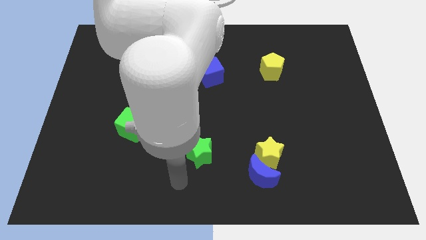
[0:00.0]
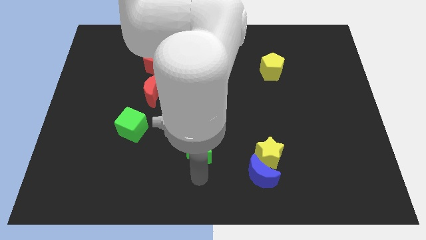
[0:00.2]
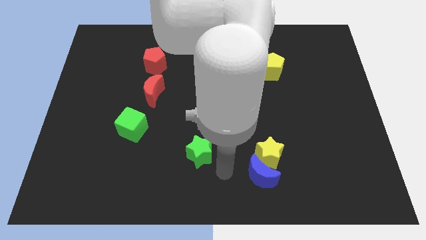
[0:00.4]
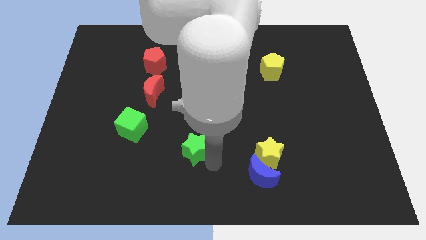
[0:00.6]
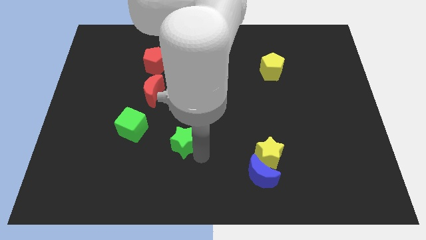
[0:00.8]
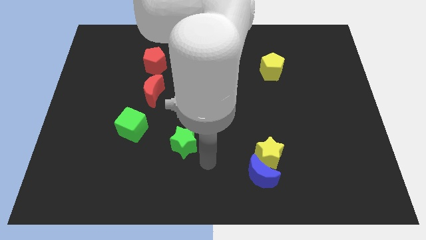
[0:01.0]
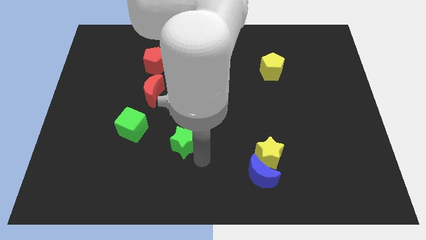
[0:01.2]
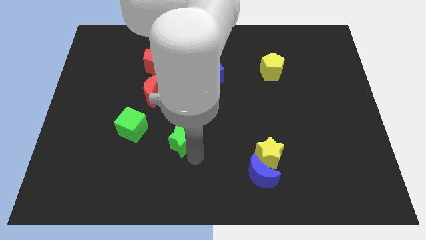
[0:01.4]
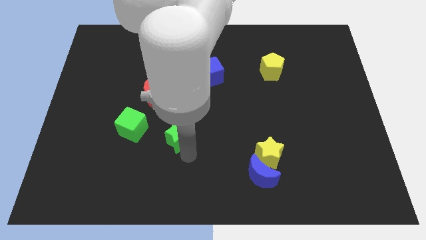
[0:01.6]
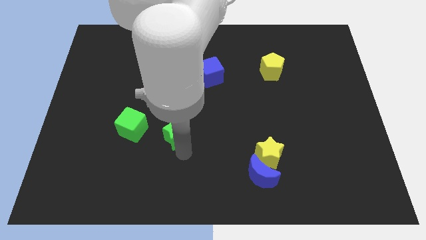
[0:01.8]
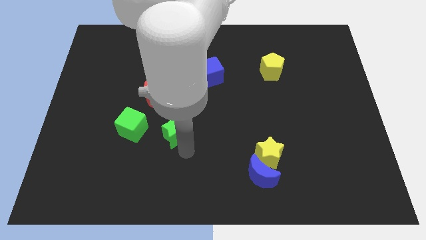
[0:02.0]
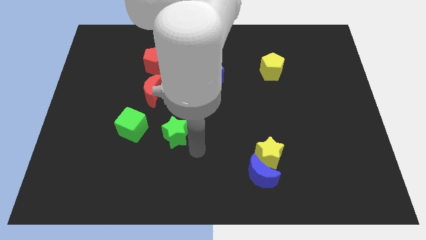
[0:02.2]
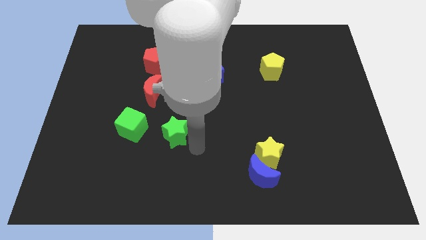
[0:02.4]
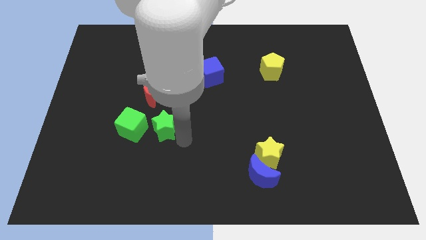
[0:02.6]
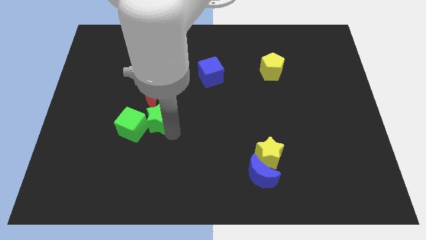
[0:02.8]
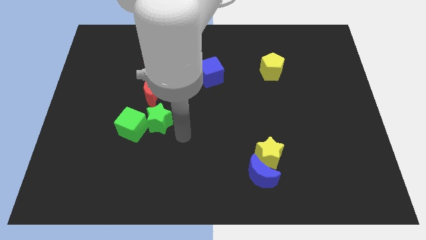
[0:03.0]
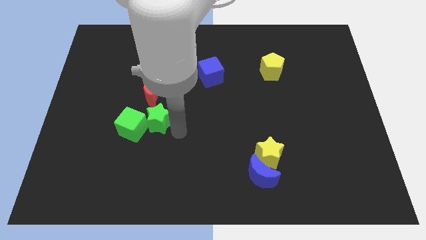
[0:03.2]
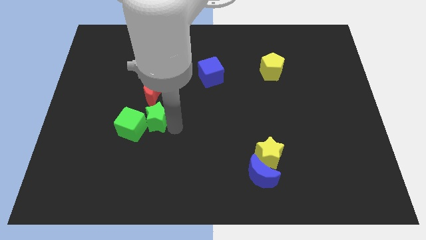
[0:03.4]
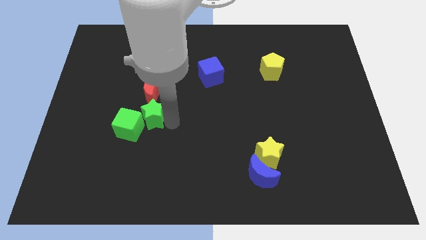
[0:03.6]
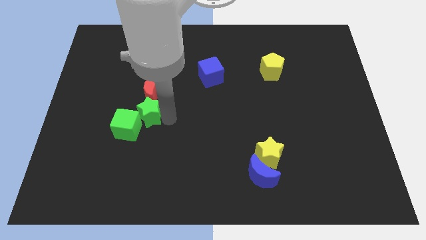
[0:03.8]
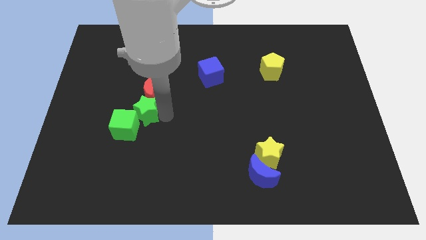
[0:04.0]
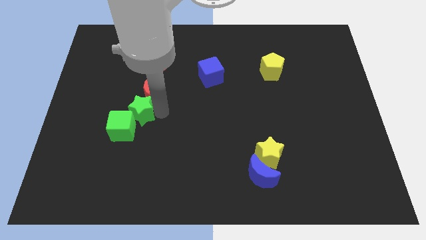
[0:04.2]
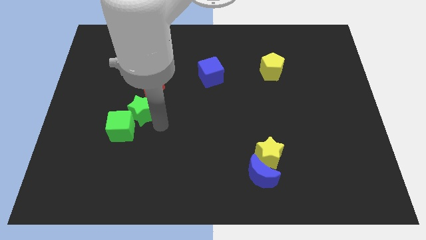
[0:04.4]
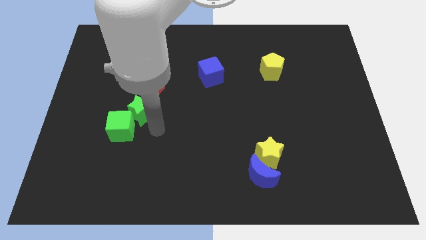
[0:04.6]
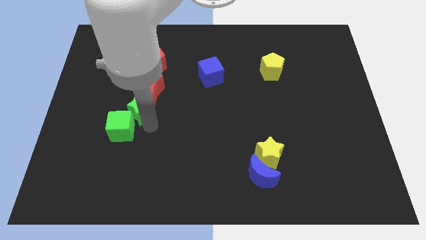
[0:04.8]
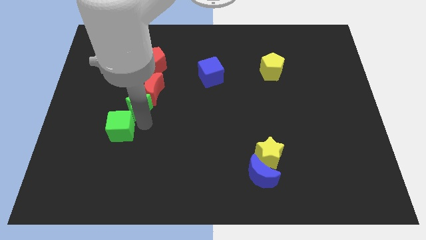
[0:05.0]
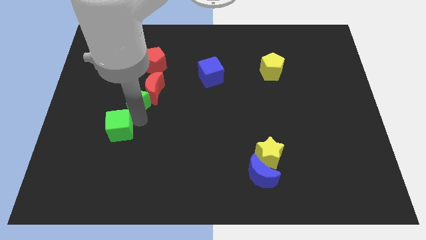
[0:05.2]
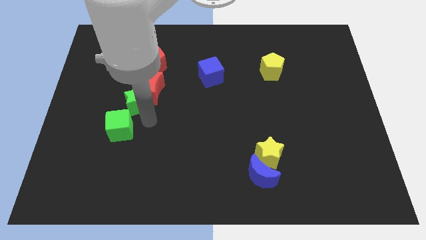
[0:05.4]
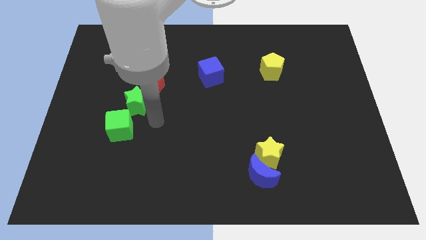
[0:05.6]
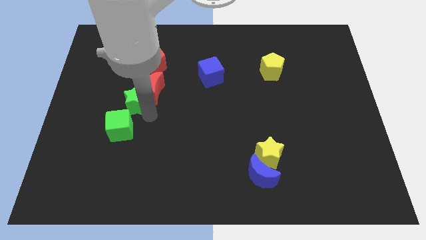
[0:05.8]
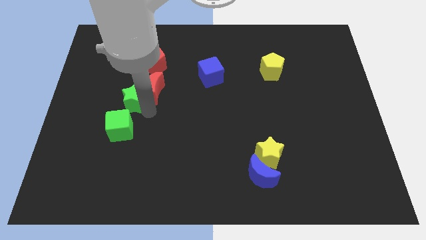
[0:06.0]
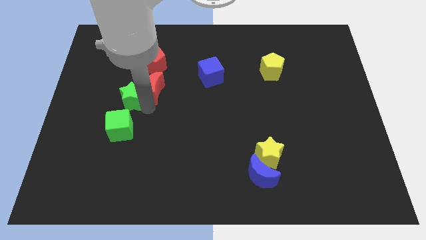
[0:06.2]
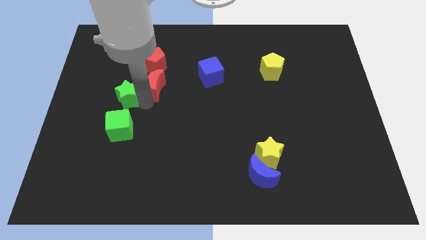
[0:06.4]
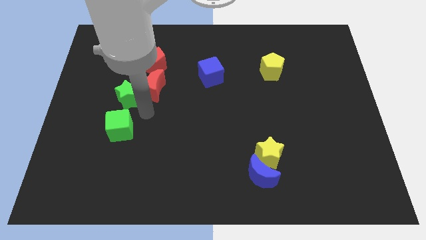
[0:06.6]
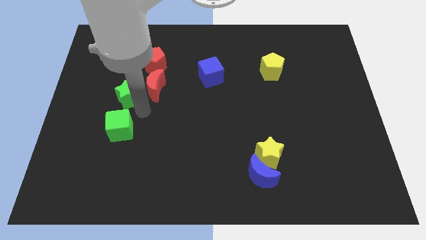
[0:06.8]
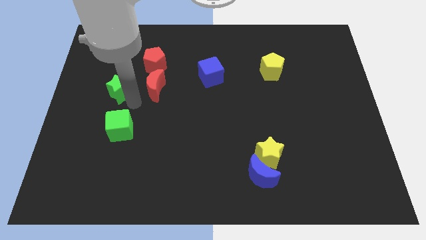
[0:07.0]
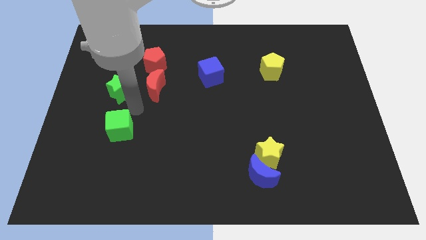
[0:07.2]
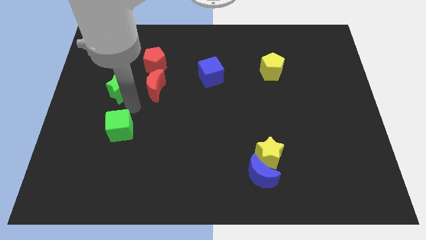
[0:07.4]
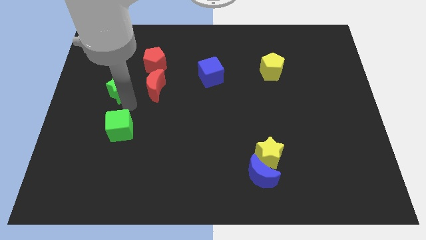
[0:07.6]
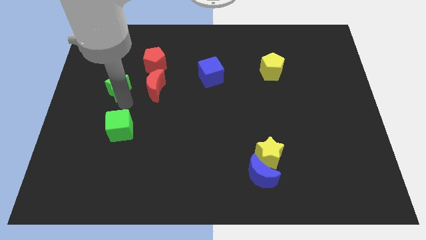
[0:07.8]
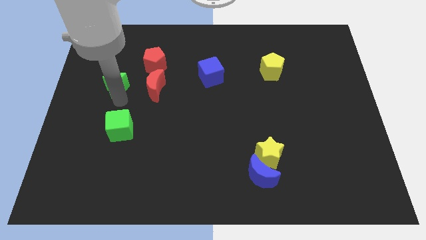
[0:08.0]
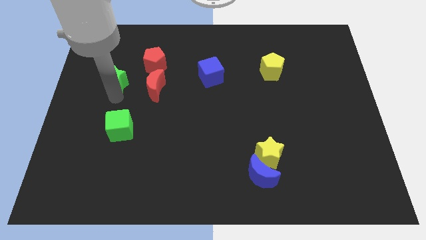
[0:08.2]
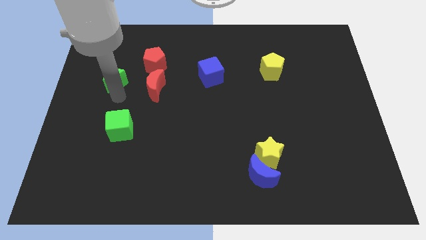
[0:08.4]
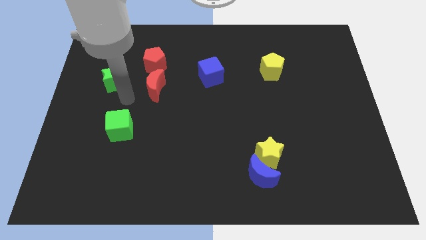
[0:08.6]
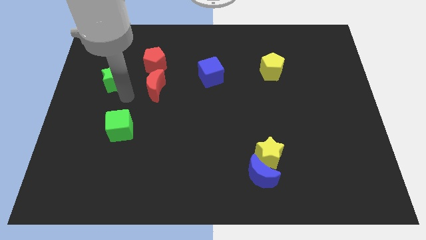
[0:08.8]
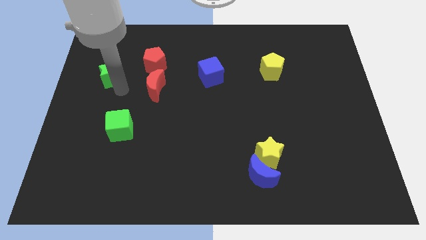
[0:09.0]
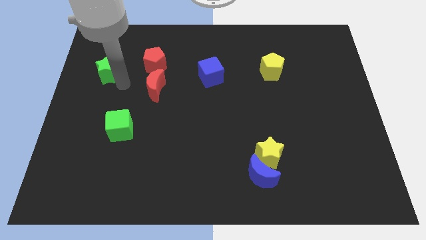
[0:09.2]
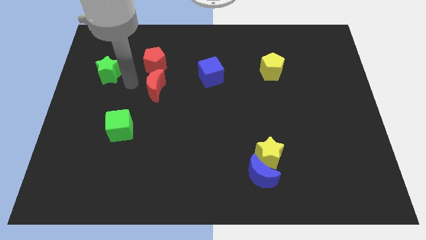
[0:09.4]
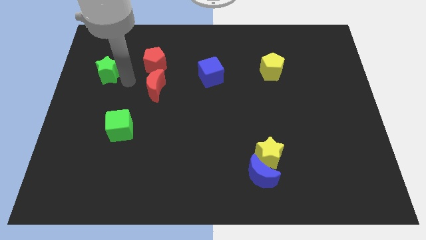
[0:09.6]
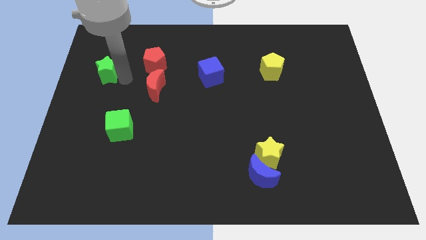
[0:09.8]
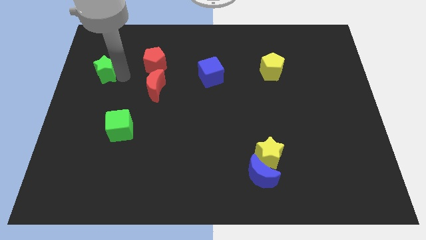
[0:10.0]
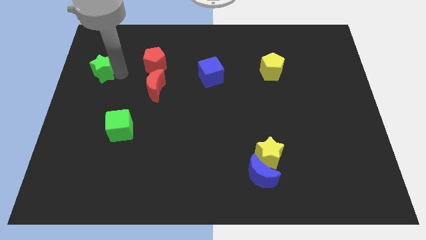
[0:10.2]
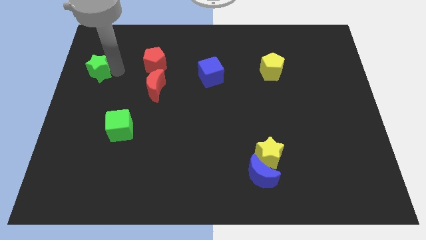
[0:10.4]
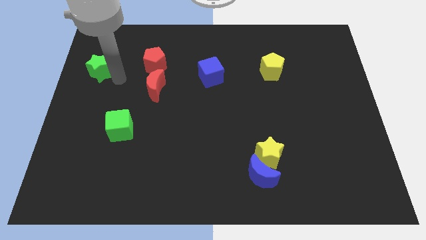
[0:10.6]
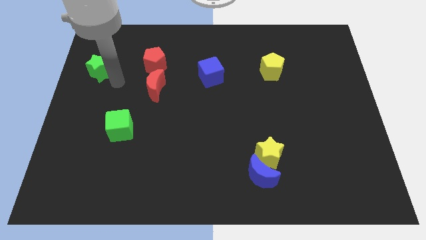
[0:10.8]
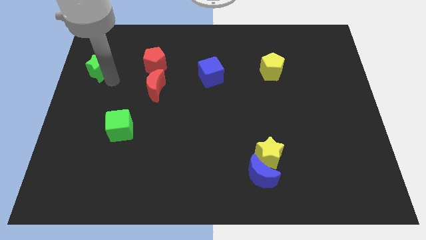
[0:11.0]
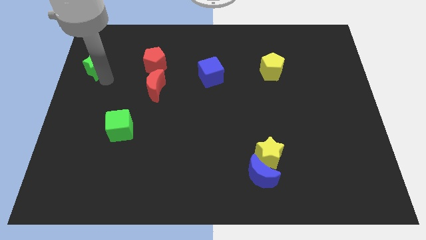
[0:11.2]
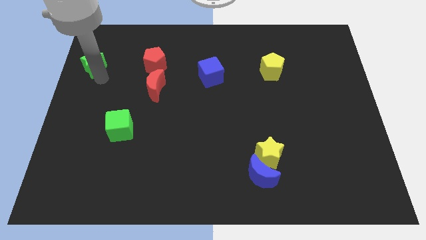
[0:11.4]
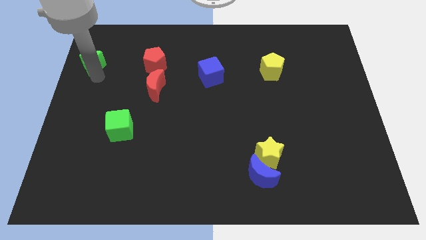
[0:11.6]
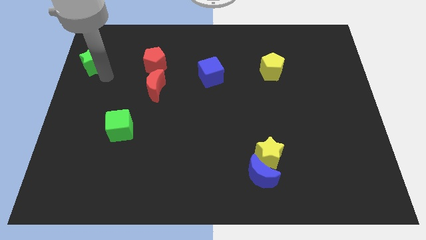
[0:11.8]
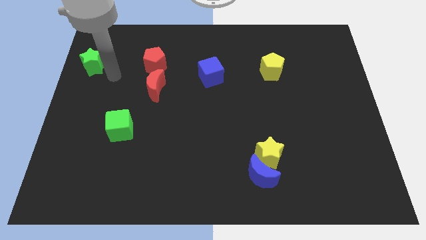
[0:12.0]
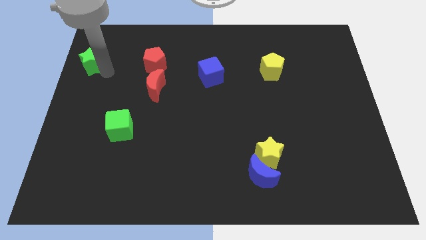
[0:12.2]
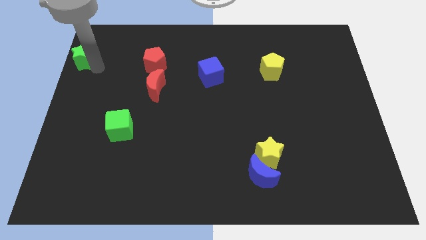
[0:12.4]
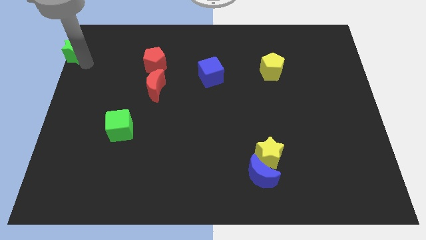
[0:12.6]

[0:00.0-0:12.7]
slide the green star to the top left of the board
